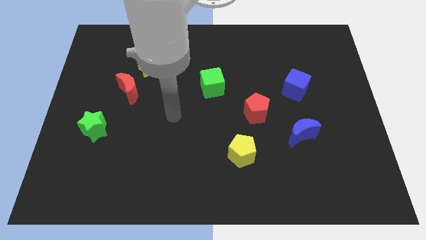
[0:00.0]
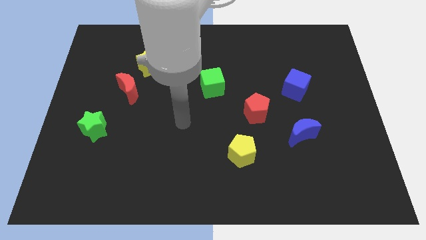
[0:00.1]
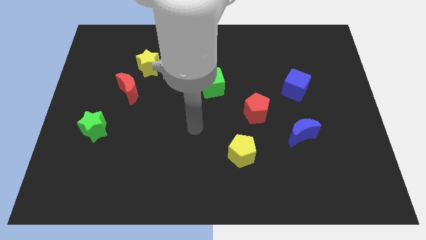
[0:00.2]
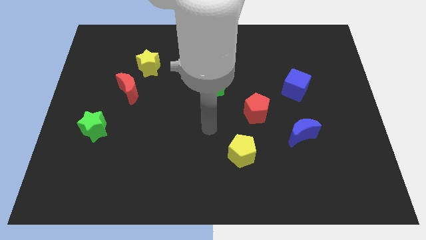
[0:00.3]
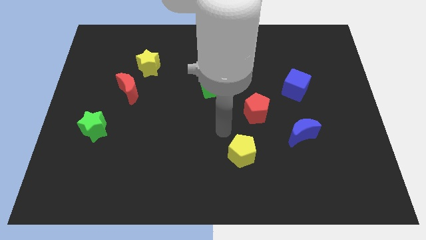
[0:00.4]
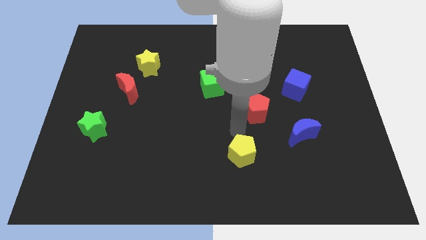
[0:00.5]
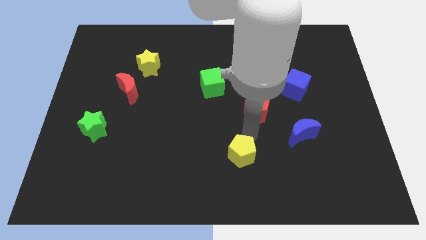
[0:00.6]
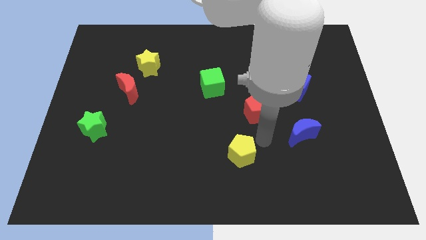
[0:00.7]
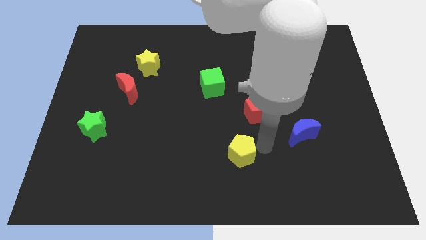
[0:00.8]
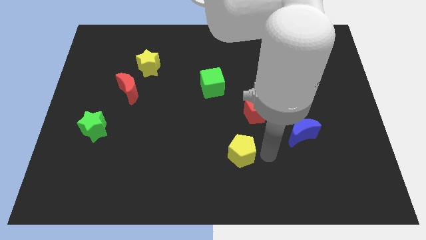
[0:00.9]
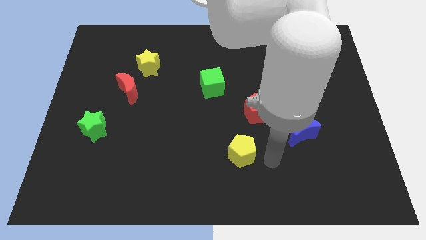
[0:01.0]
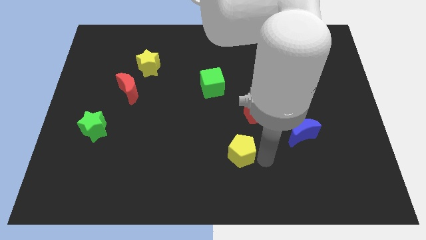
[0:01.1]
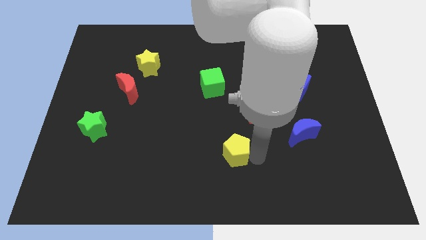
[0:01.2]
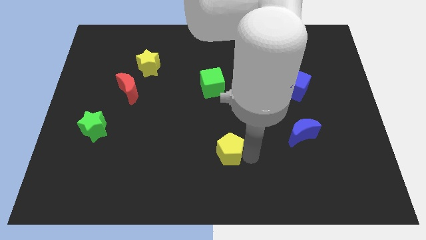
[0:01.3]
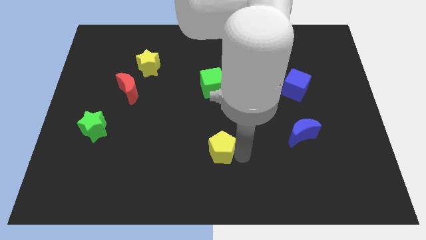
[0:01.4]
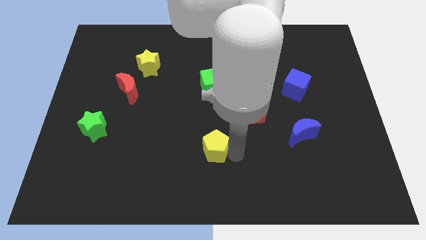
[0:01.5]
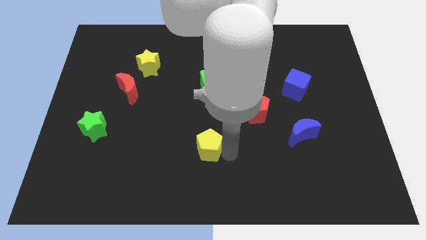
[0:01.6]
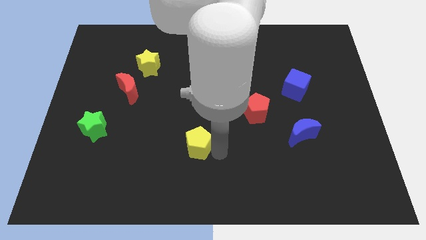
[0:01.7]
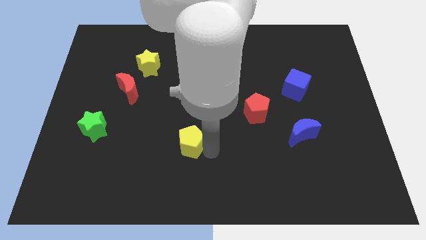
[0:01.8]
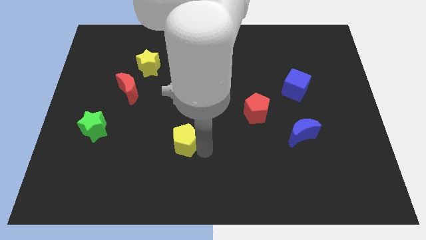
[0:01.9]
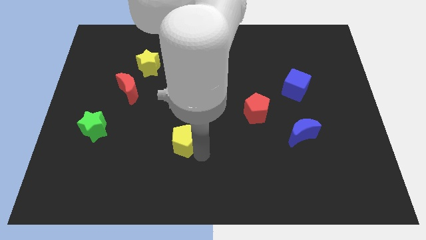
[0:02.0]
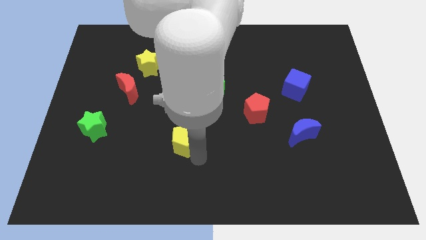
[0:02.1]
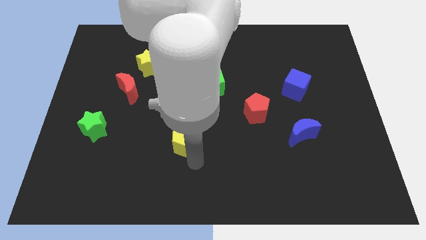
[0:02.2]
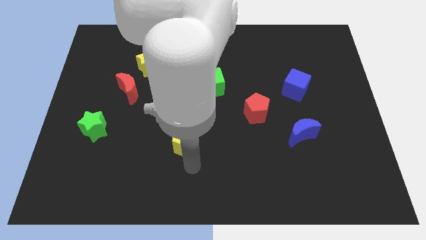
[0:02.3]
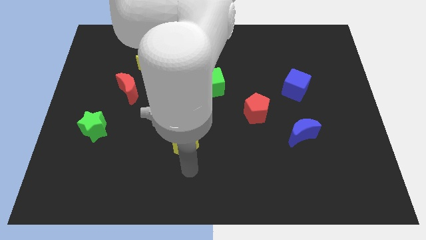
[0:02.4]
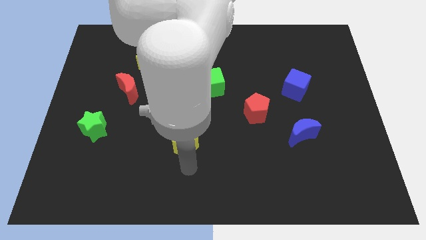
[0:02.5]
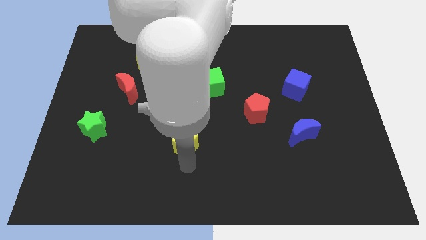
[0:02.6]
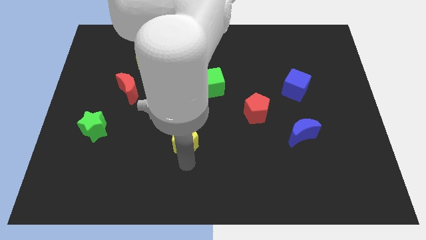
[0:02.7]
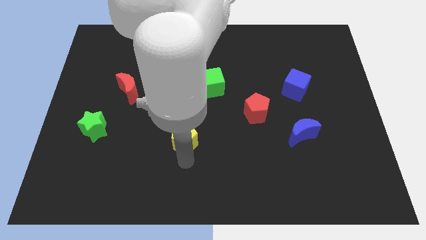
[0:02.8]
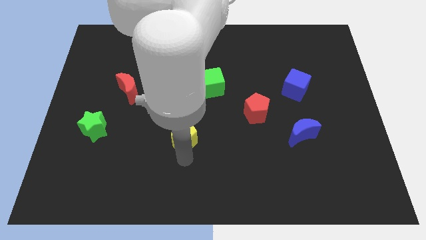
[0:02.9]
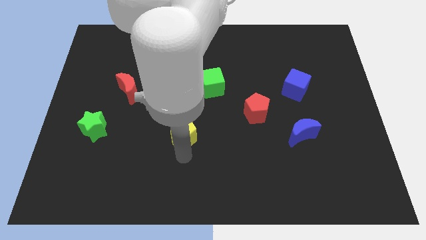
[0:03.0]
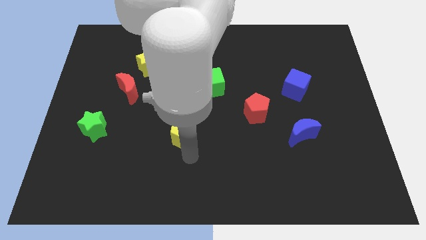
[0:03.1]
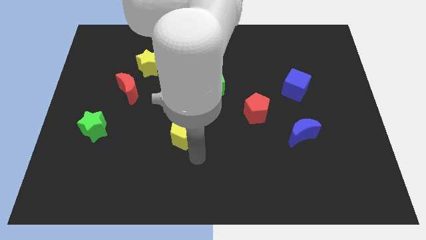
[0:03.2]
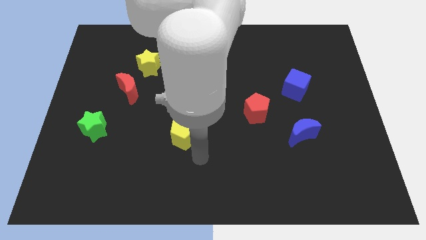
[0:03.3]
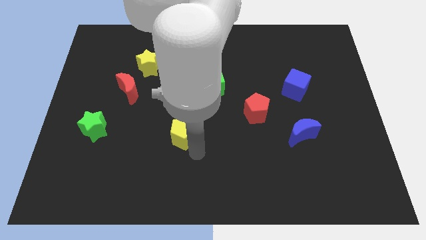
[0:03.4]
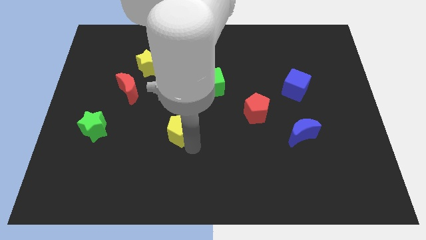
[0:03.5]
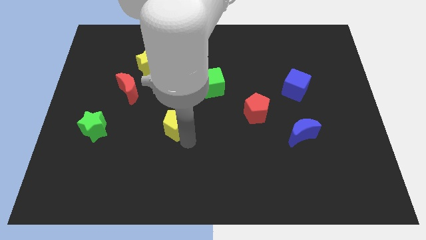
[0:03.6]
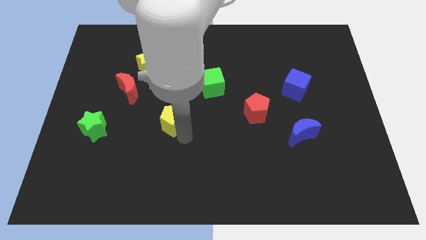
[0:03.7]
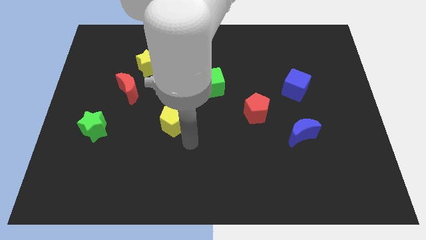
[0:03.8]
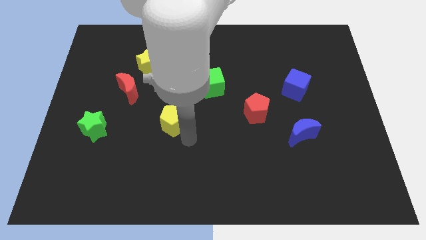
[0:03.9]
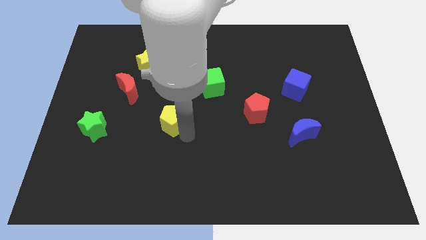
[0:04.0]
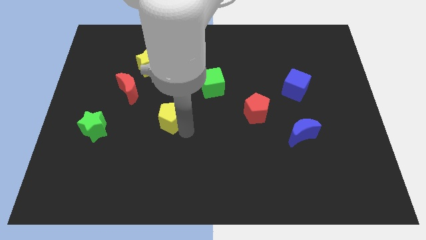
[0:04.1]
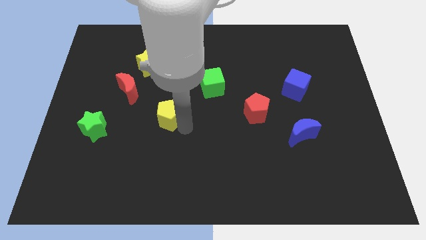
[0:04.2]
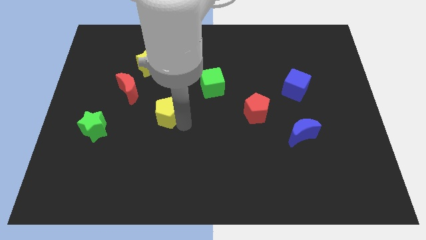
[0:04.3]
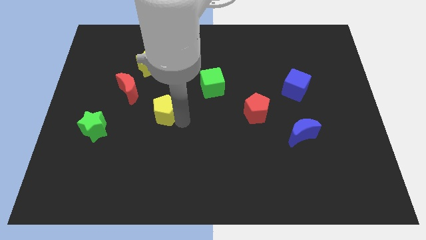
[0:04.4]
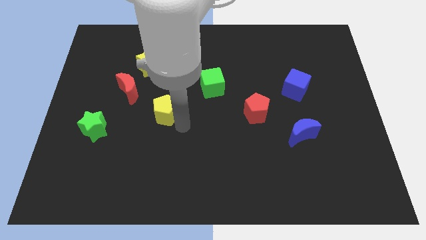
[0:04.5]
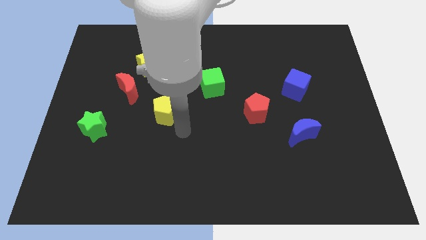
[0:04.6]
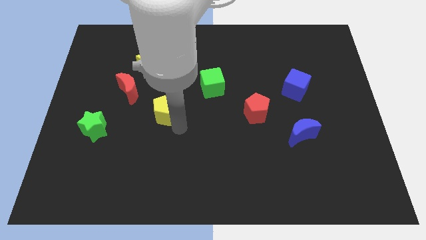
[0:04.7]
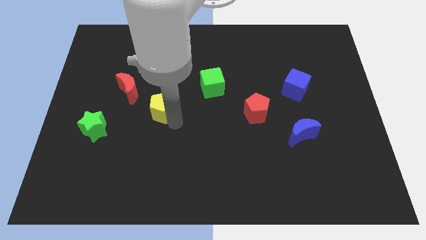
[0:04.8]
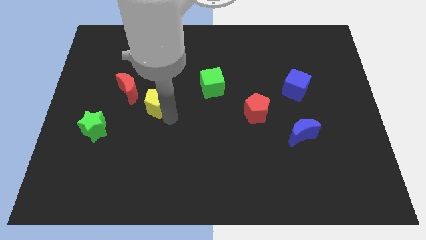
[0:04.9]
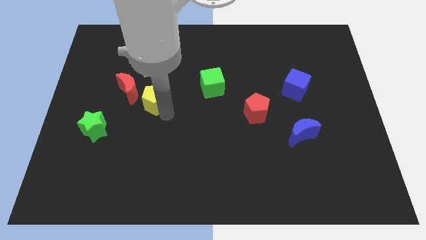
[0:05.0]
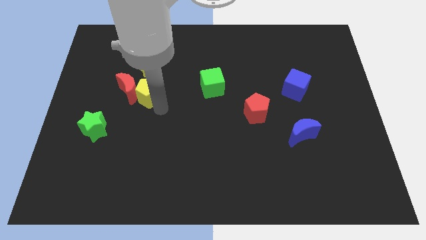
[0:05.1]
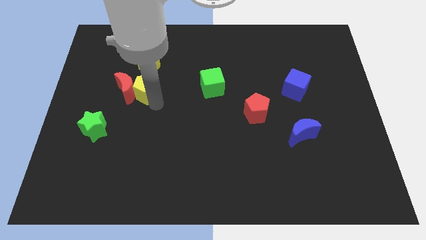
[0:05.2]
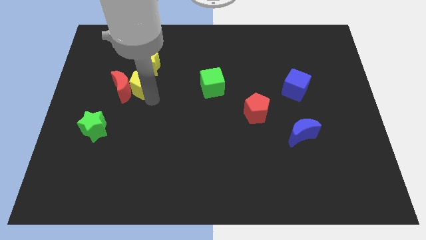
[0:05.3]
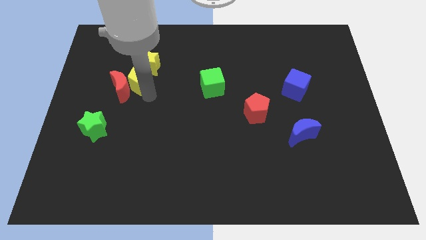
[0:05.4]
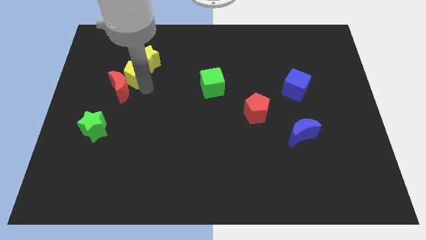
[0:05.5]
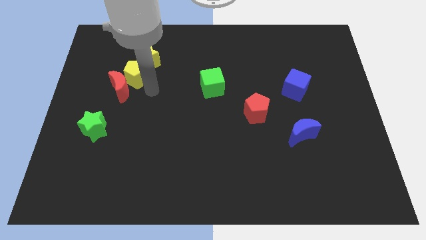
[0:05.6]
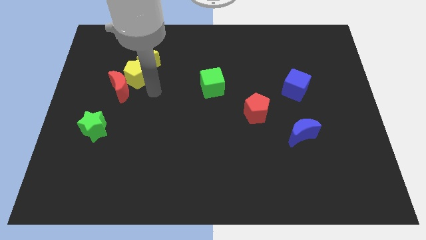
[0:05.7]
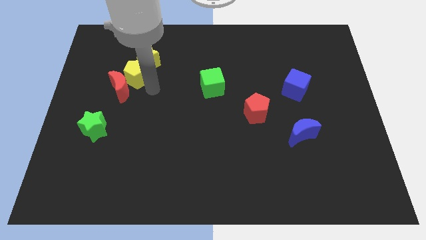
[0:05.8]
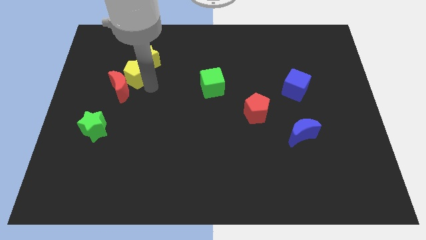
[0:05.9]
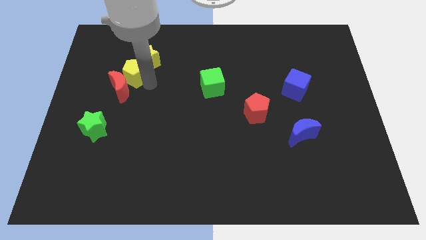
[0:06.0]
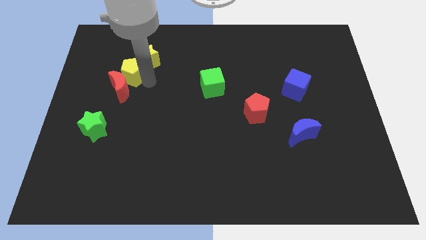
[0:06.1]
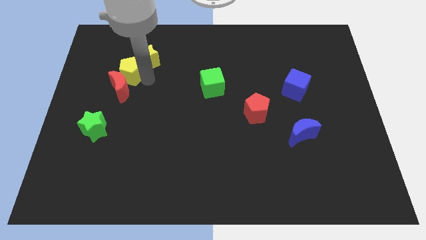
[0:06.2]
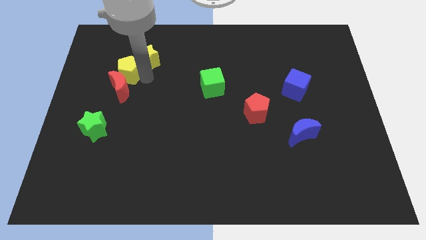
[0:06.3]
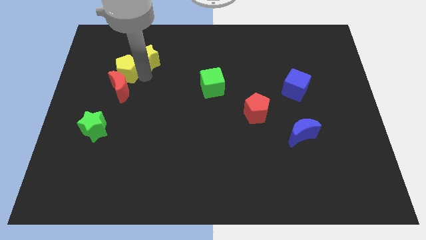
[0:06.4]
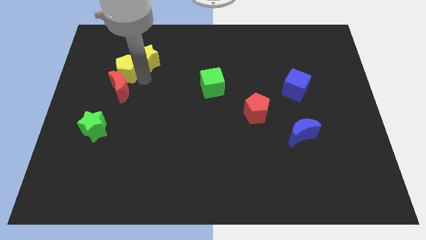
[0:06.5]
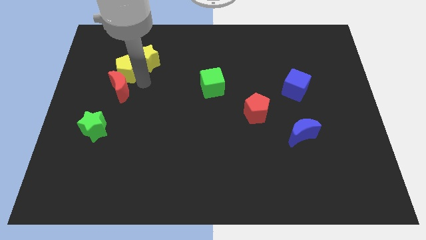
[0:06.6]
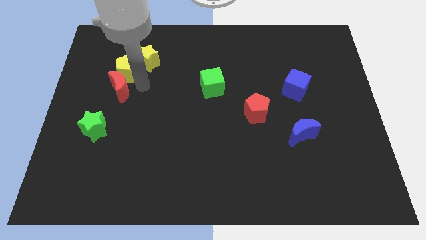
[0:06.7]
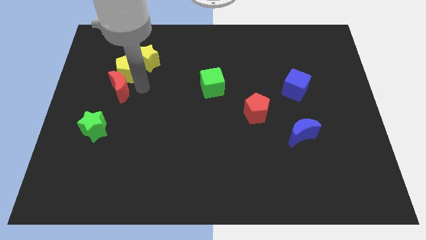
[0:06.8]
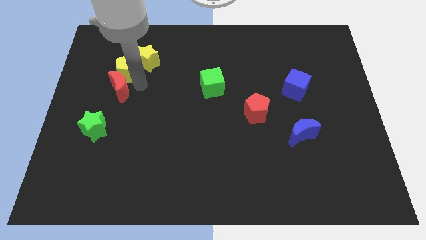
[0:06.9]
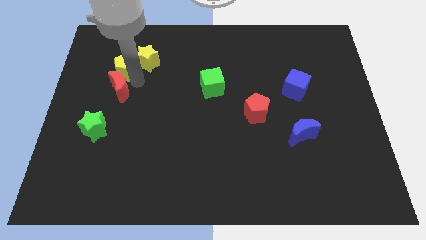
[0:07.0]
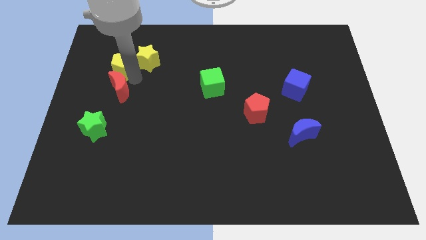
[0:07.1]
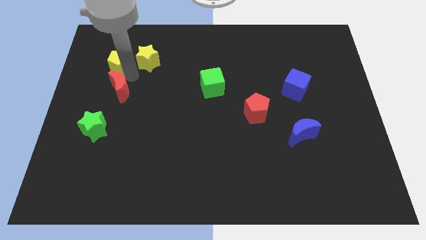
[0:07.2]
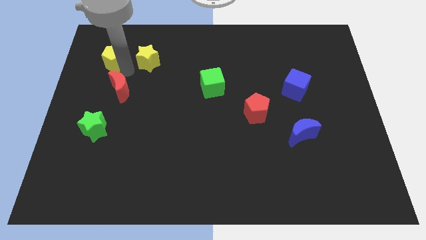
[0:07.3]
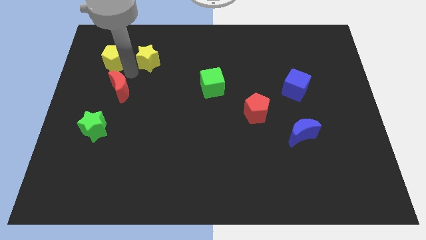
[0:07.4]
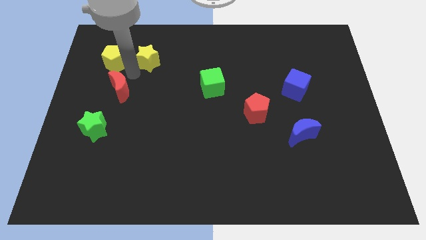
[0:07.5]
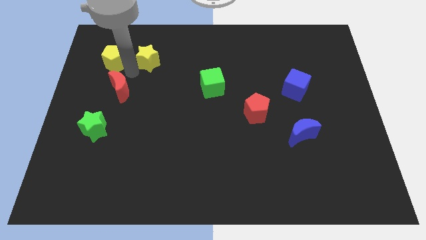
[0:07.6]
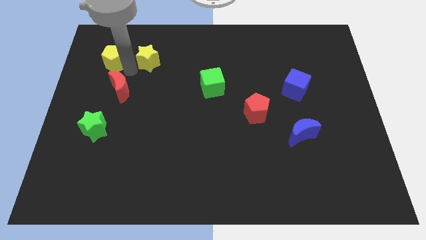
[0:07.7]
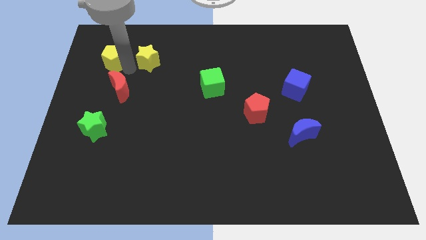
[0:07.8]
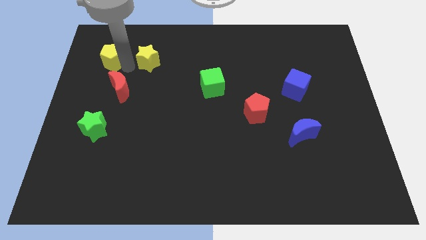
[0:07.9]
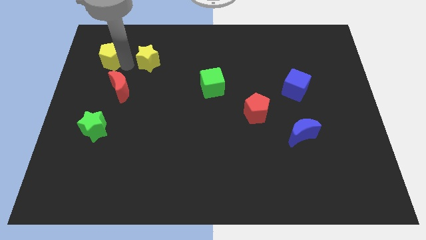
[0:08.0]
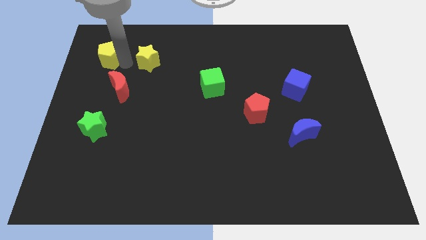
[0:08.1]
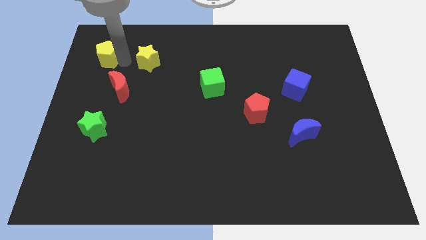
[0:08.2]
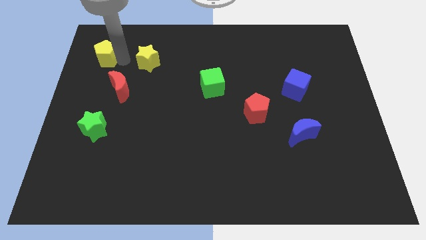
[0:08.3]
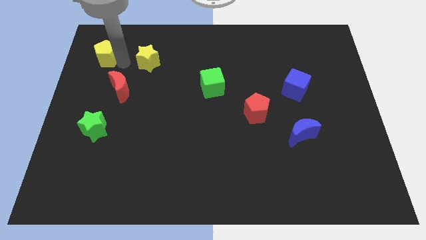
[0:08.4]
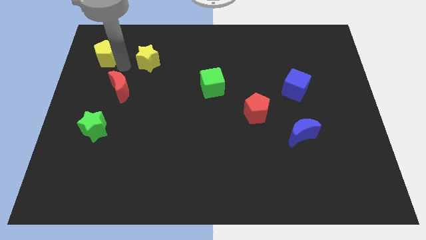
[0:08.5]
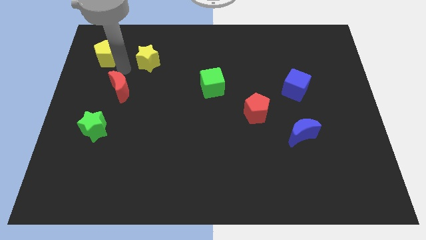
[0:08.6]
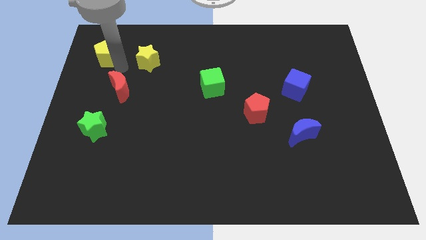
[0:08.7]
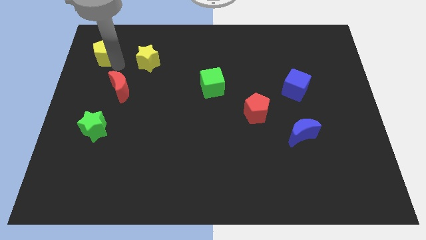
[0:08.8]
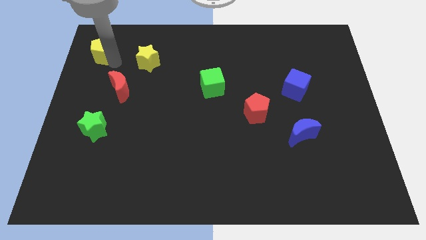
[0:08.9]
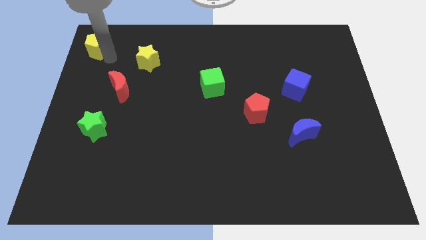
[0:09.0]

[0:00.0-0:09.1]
put the yellow pentagon to the upper left corner
